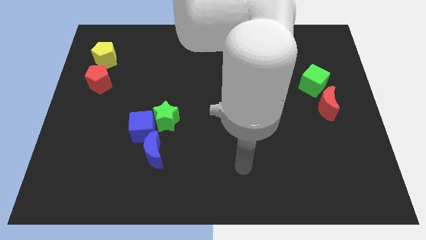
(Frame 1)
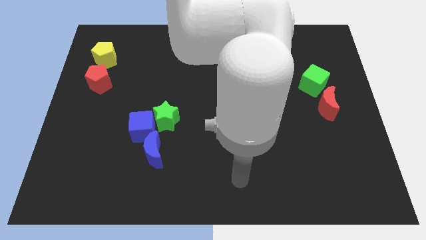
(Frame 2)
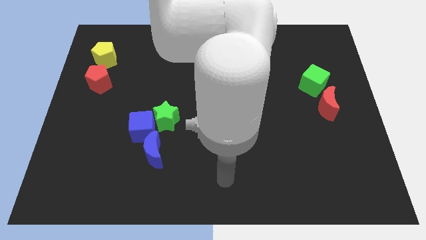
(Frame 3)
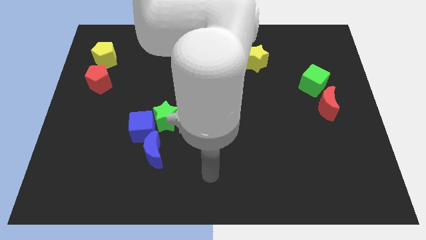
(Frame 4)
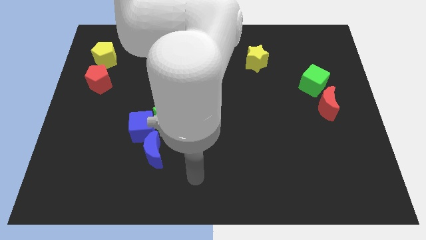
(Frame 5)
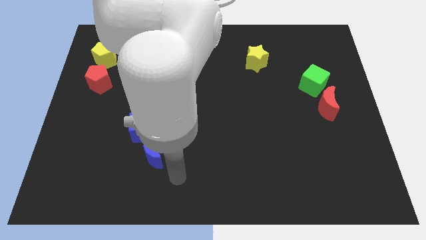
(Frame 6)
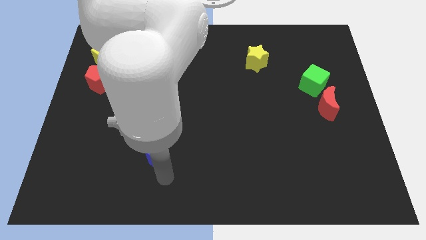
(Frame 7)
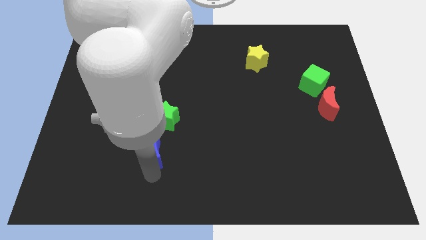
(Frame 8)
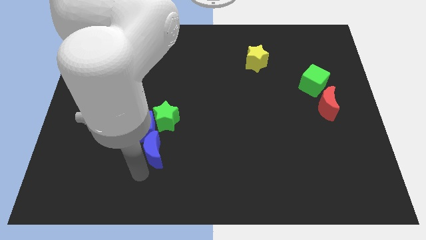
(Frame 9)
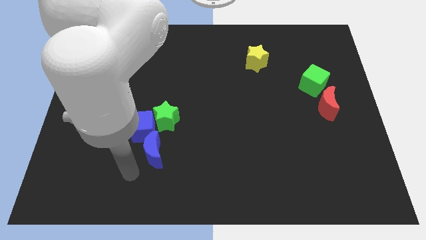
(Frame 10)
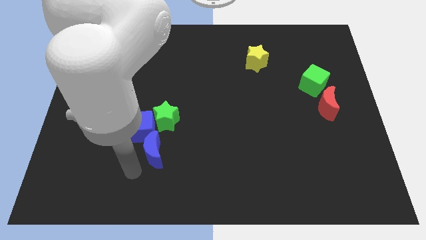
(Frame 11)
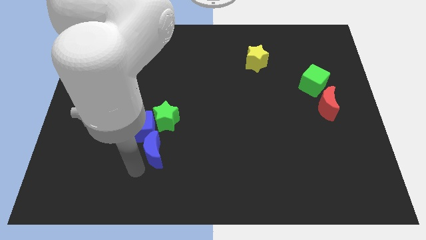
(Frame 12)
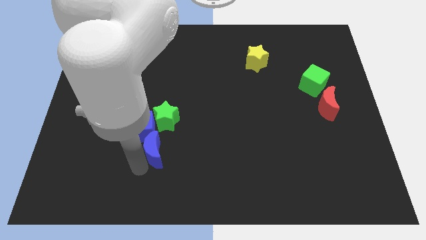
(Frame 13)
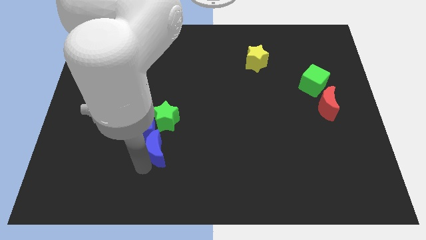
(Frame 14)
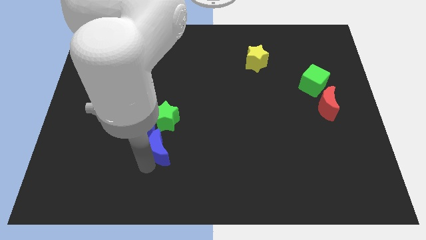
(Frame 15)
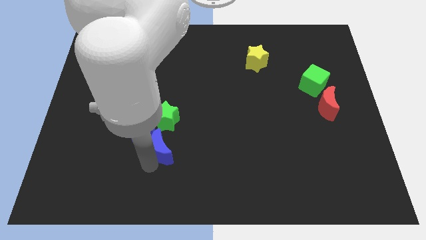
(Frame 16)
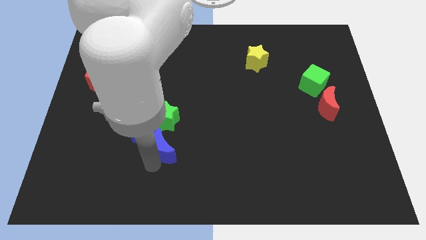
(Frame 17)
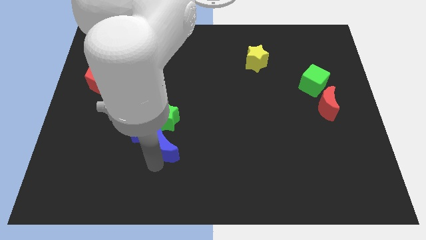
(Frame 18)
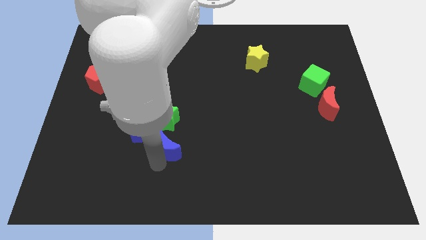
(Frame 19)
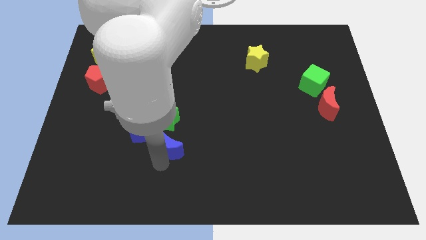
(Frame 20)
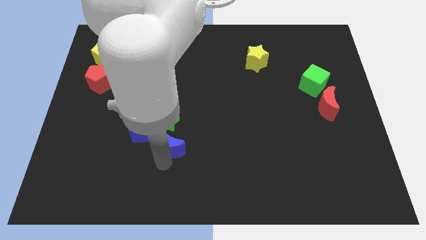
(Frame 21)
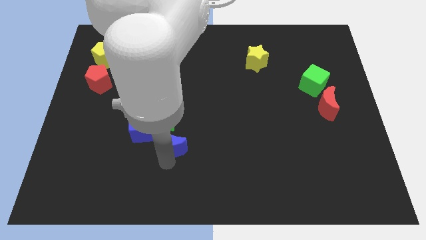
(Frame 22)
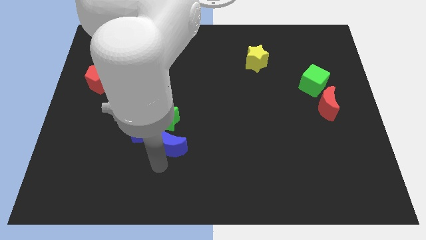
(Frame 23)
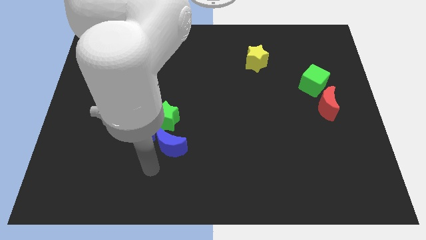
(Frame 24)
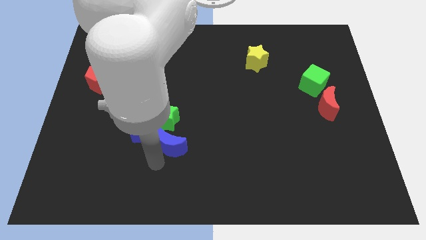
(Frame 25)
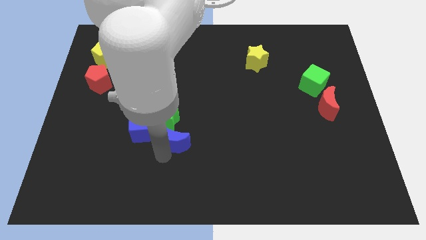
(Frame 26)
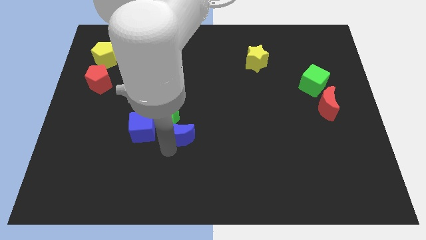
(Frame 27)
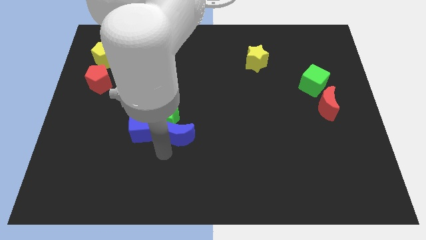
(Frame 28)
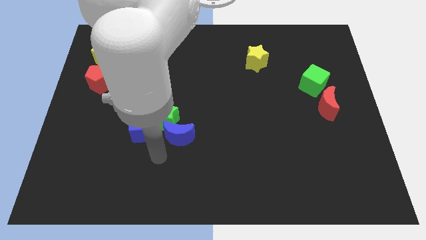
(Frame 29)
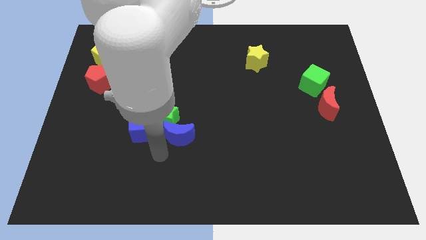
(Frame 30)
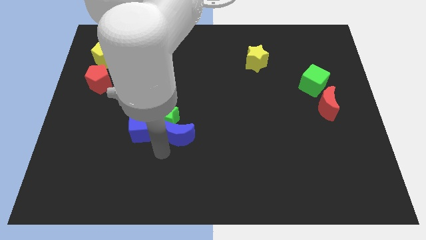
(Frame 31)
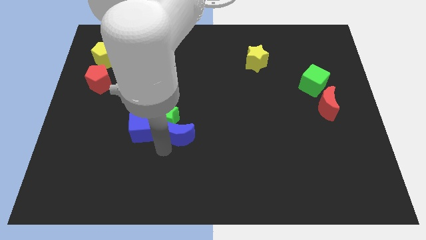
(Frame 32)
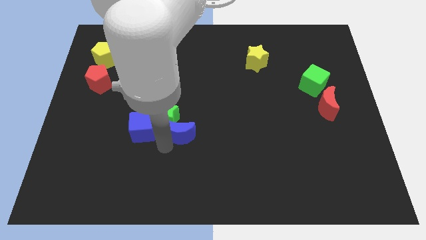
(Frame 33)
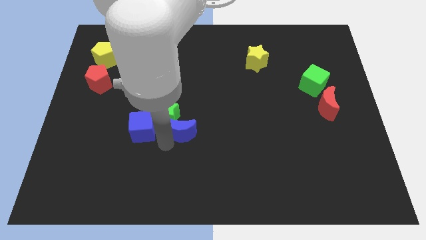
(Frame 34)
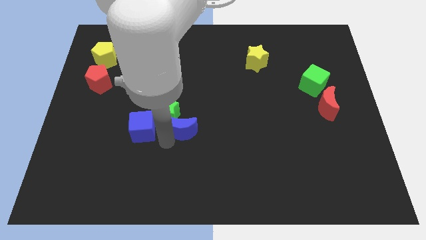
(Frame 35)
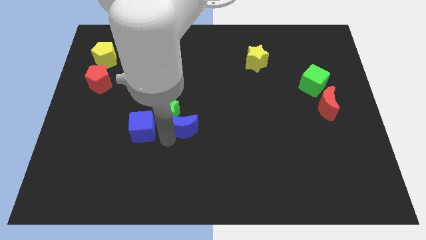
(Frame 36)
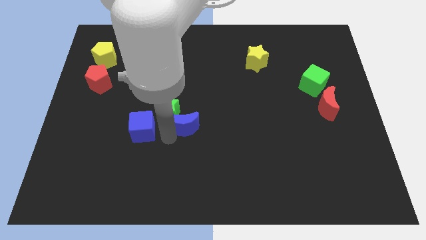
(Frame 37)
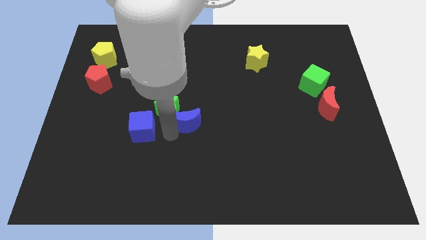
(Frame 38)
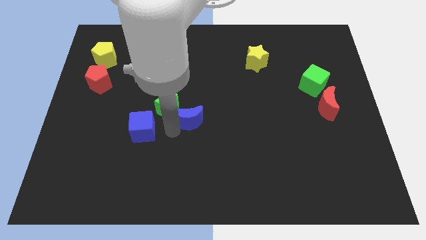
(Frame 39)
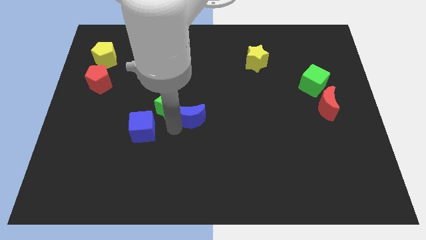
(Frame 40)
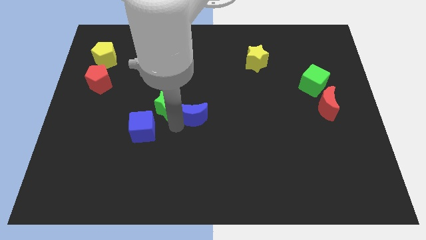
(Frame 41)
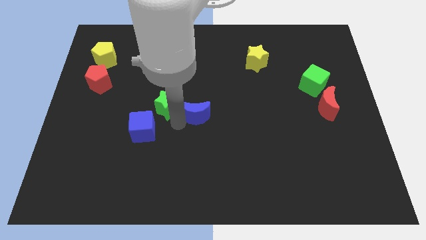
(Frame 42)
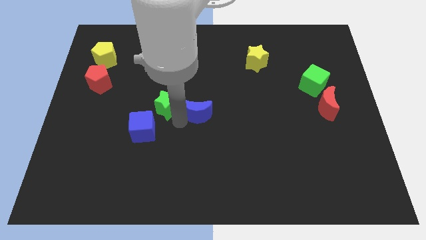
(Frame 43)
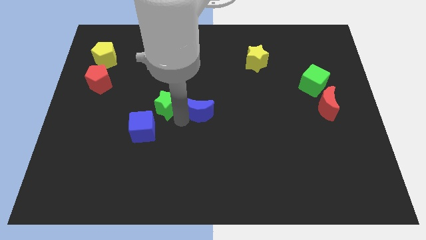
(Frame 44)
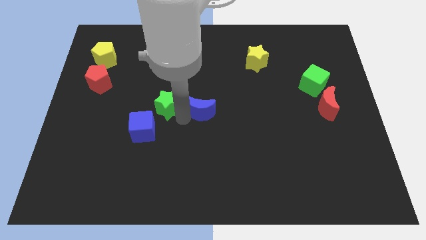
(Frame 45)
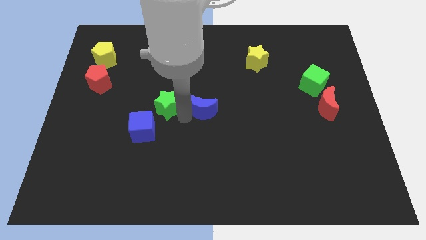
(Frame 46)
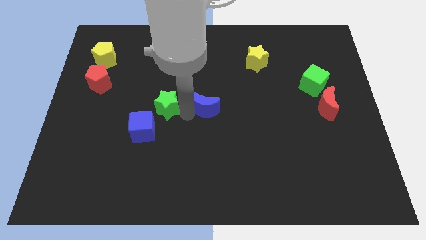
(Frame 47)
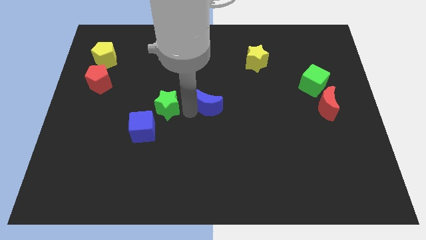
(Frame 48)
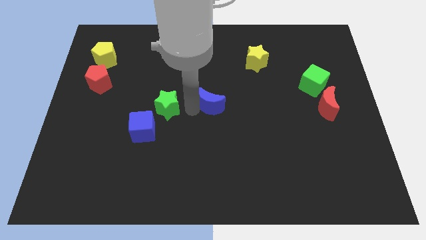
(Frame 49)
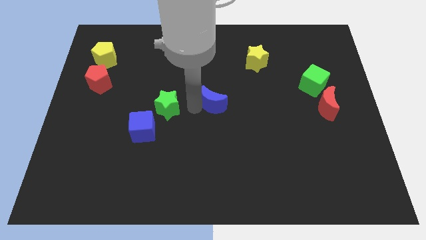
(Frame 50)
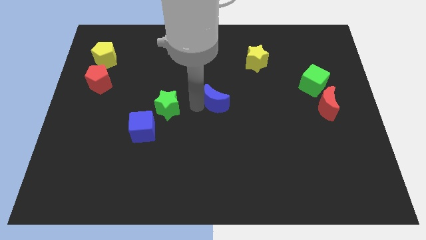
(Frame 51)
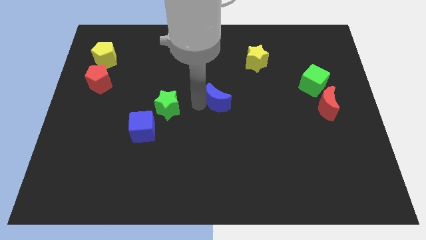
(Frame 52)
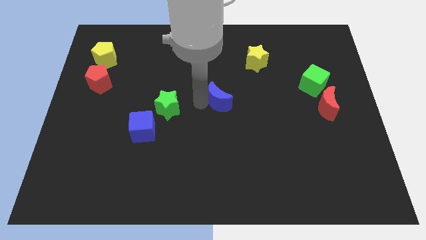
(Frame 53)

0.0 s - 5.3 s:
move the blue moon up and then to the right

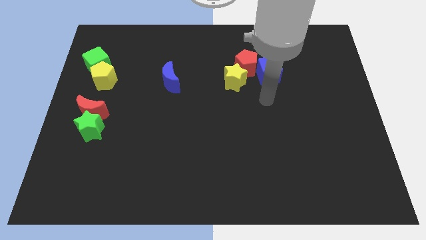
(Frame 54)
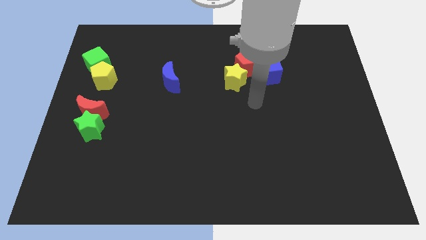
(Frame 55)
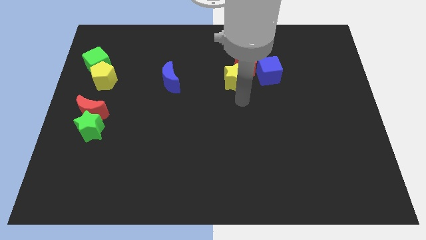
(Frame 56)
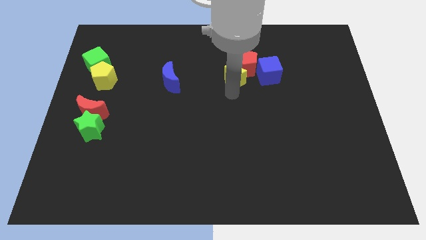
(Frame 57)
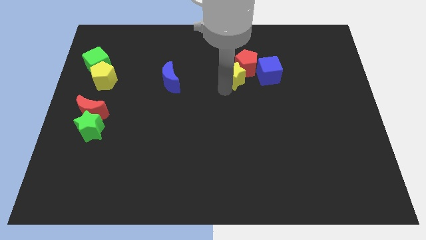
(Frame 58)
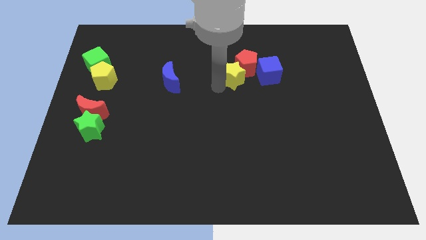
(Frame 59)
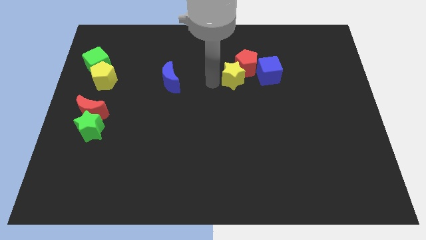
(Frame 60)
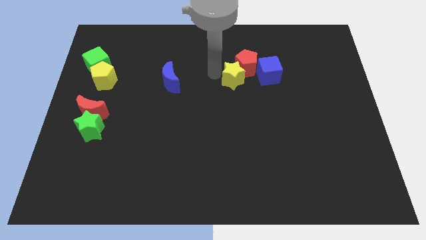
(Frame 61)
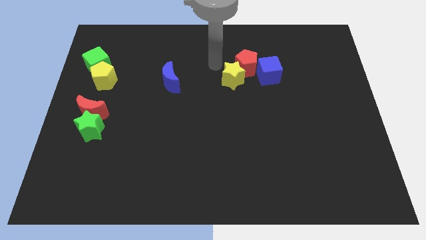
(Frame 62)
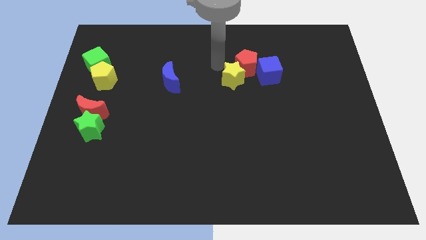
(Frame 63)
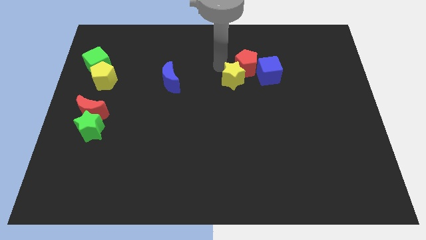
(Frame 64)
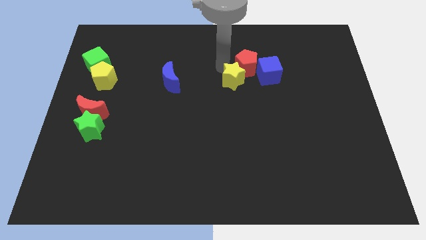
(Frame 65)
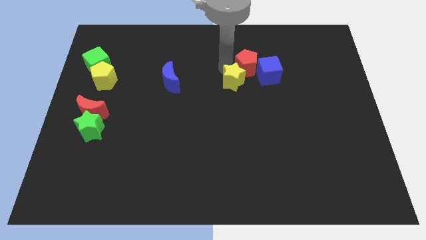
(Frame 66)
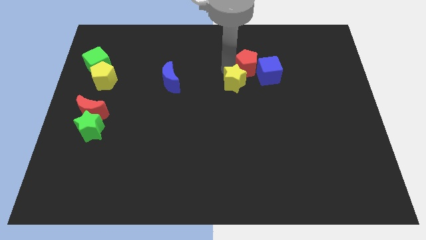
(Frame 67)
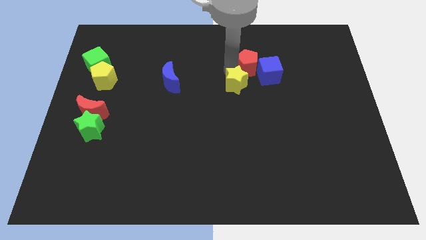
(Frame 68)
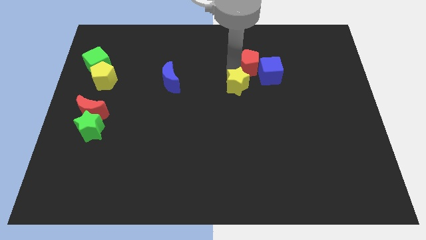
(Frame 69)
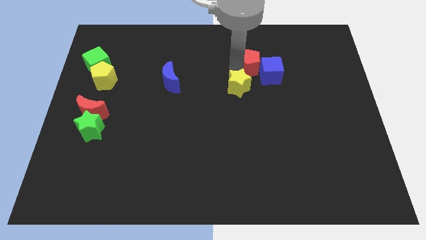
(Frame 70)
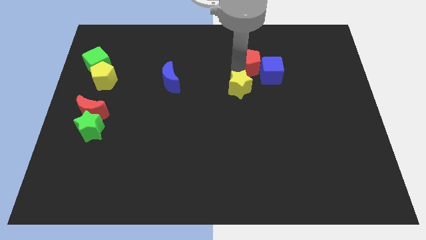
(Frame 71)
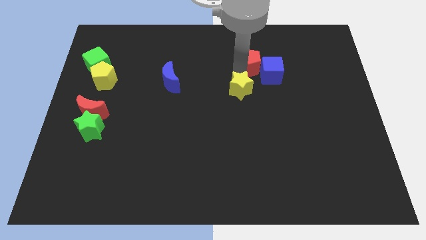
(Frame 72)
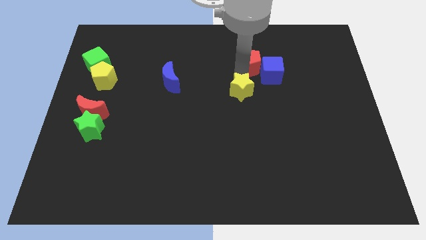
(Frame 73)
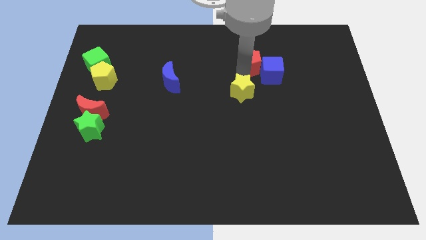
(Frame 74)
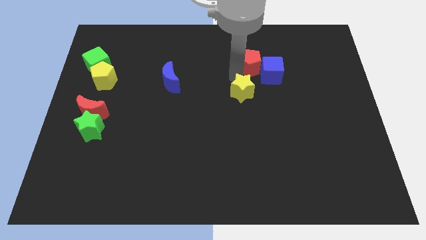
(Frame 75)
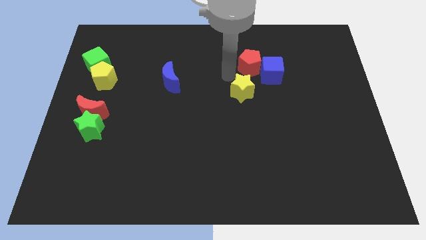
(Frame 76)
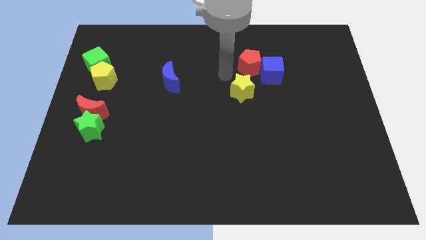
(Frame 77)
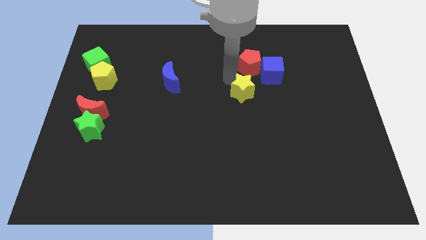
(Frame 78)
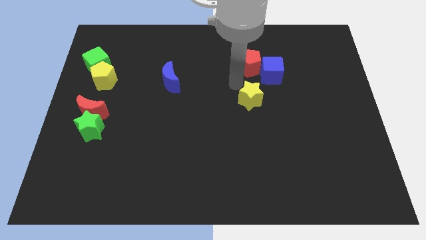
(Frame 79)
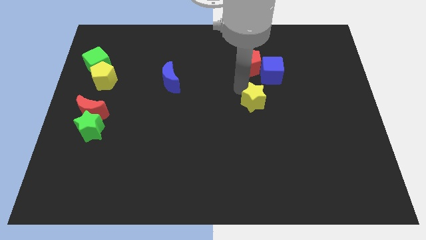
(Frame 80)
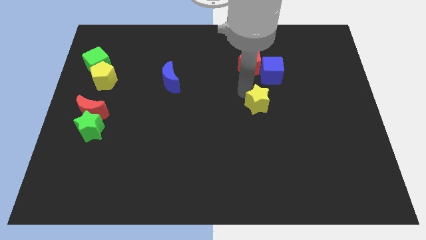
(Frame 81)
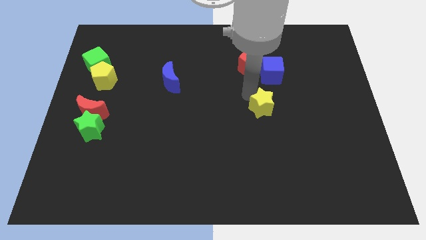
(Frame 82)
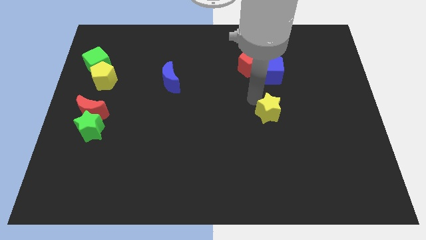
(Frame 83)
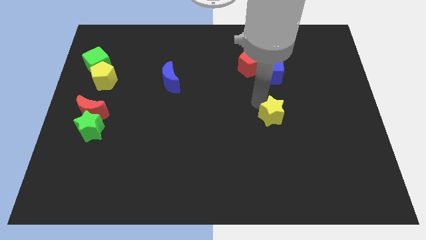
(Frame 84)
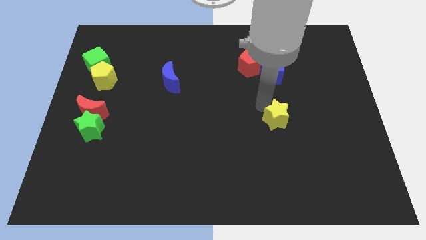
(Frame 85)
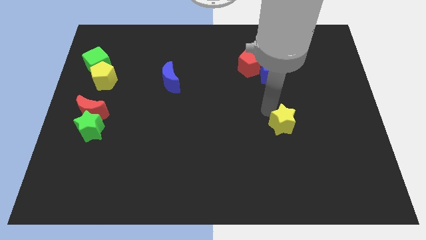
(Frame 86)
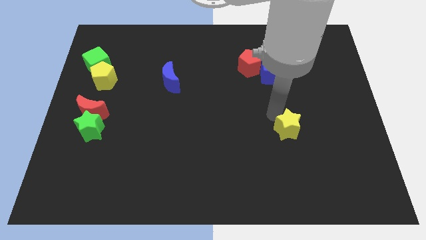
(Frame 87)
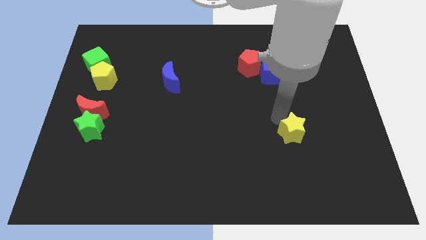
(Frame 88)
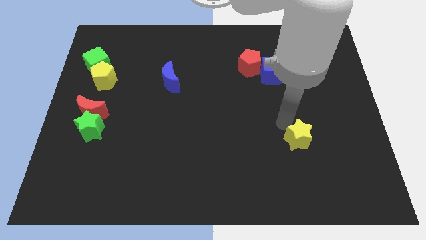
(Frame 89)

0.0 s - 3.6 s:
push the yellow star diagonally downwards and right
